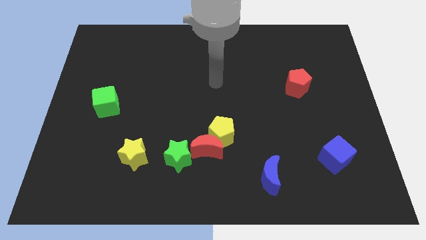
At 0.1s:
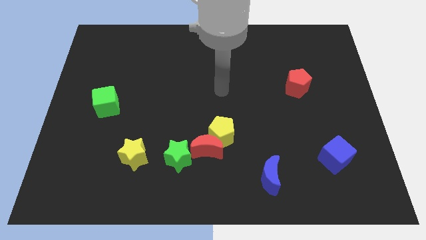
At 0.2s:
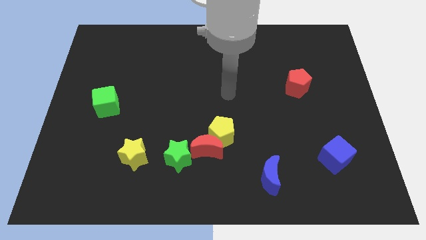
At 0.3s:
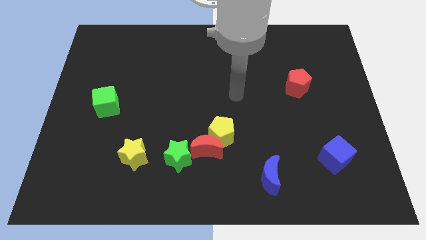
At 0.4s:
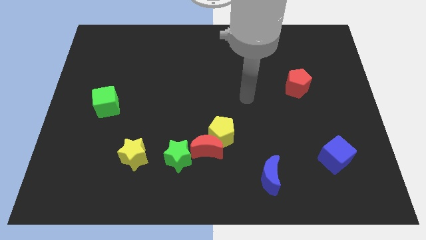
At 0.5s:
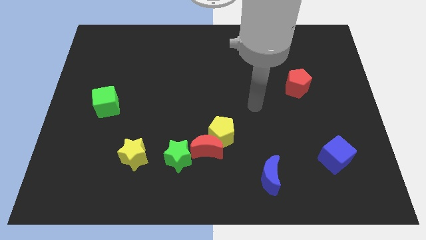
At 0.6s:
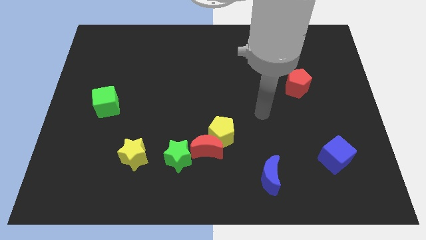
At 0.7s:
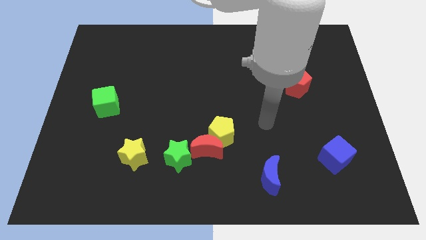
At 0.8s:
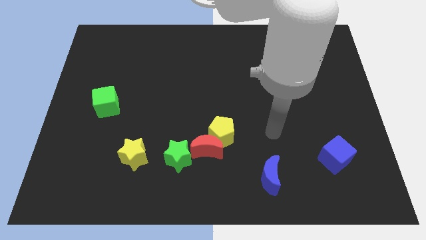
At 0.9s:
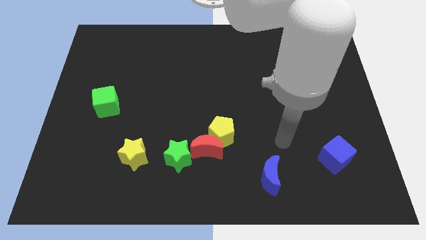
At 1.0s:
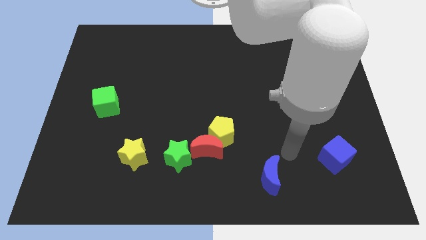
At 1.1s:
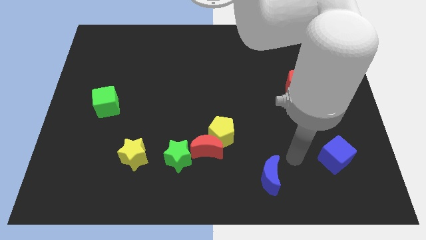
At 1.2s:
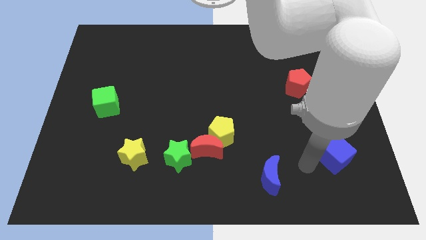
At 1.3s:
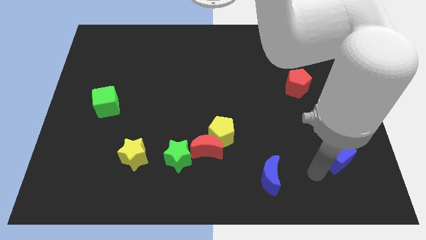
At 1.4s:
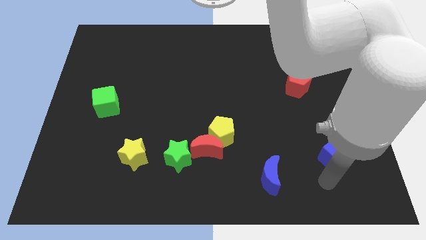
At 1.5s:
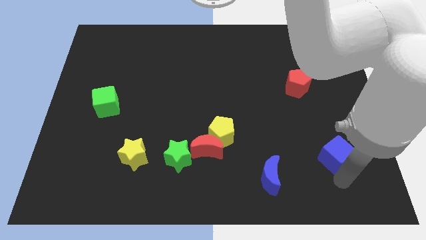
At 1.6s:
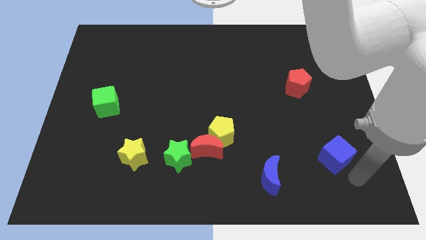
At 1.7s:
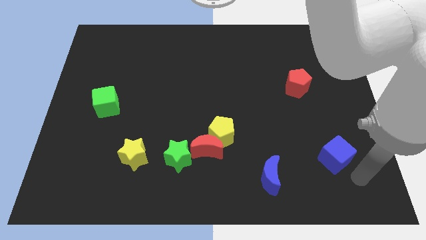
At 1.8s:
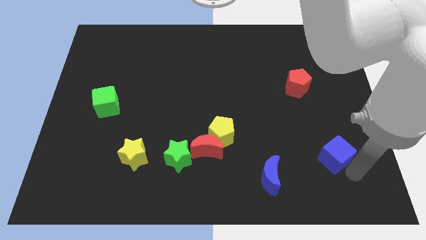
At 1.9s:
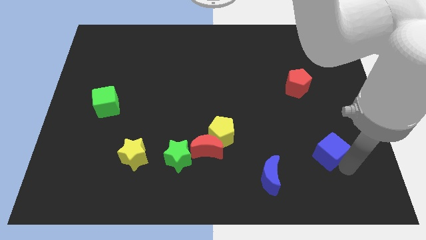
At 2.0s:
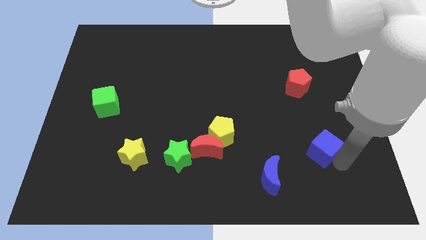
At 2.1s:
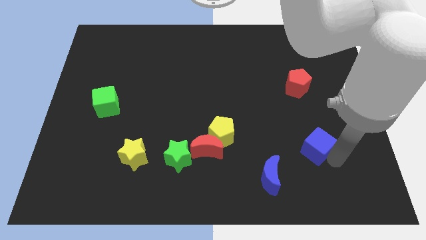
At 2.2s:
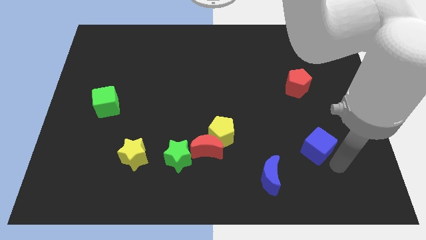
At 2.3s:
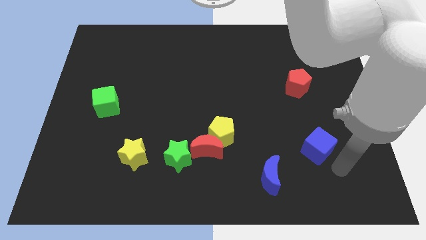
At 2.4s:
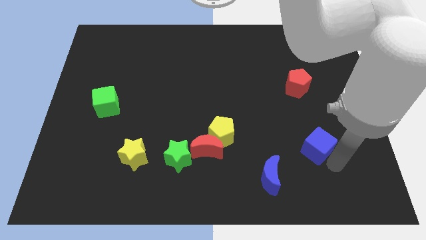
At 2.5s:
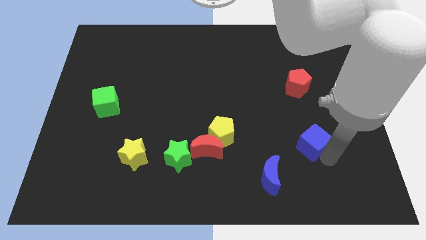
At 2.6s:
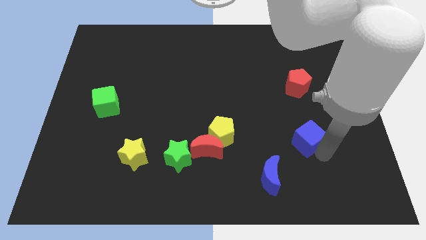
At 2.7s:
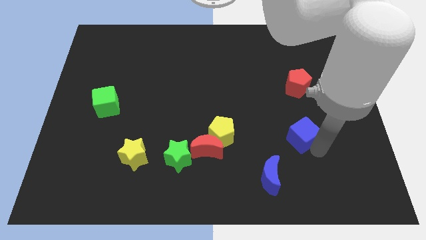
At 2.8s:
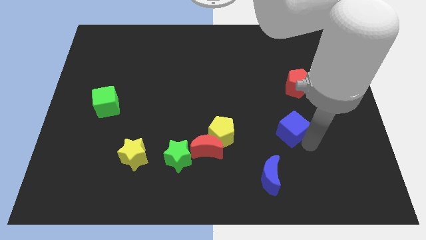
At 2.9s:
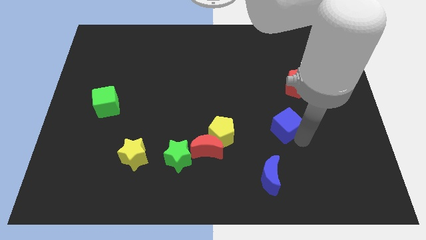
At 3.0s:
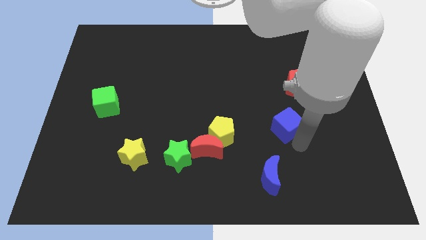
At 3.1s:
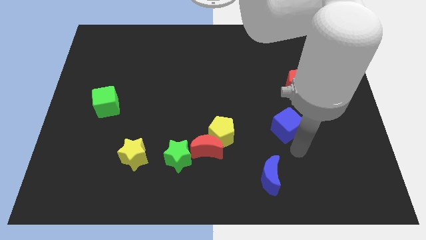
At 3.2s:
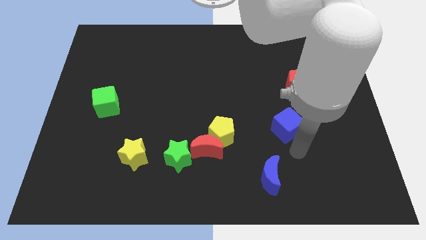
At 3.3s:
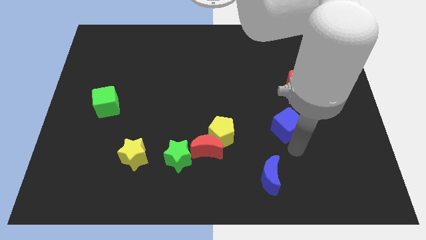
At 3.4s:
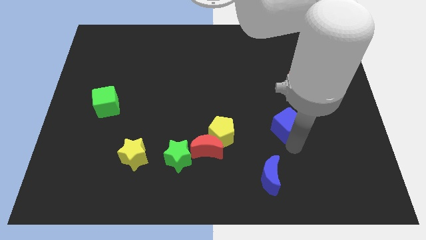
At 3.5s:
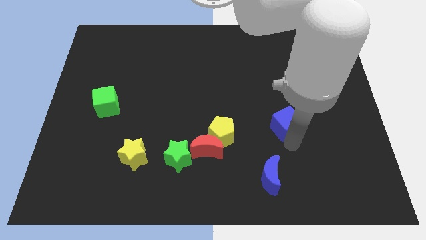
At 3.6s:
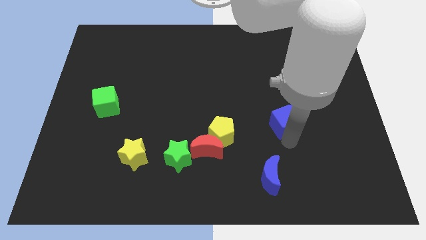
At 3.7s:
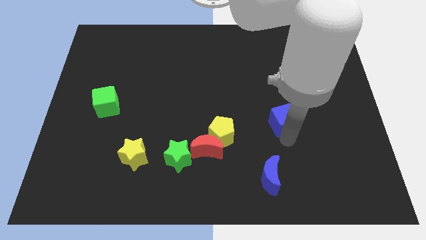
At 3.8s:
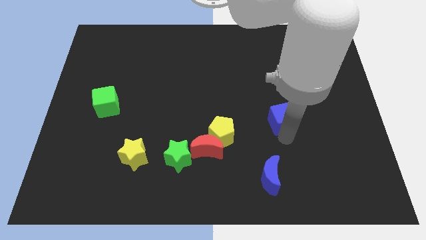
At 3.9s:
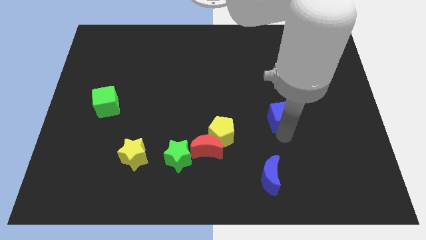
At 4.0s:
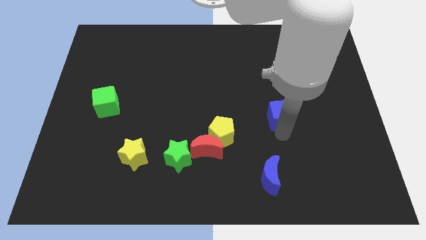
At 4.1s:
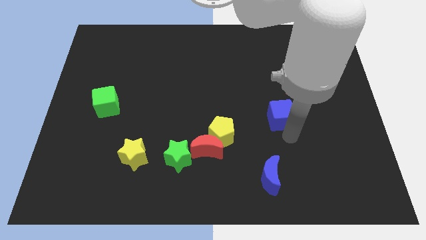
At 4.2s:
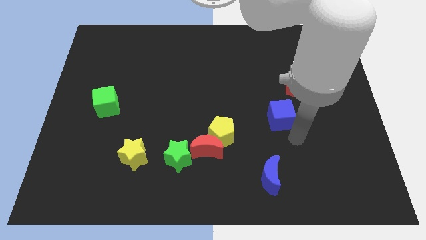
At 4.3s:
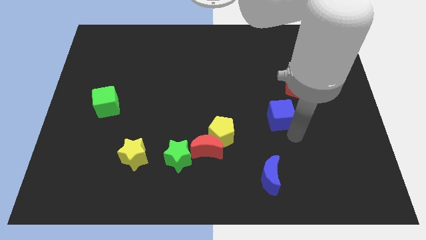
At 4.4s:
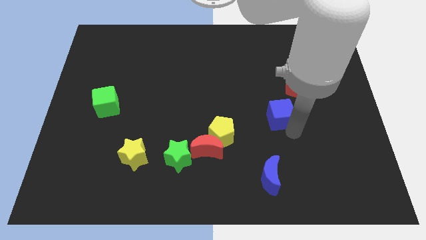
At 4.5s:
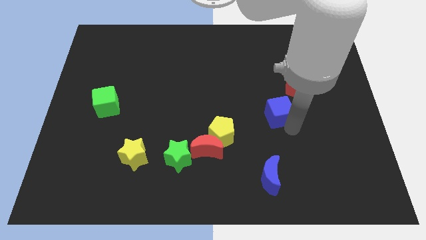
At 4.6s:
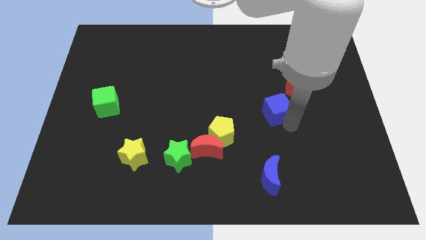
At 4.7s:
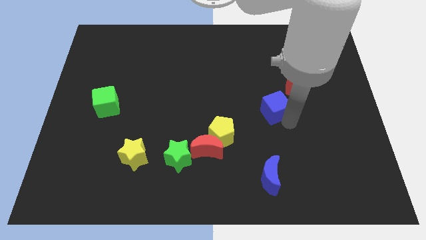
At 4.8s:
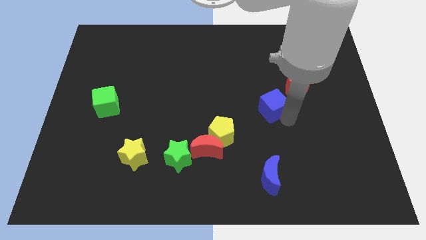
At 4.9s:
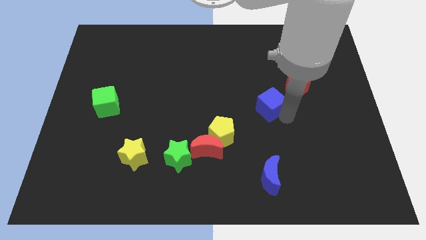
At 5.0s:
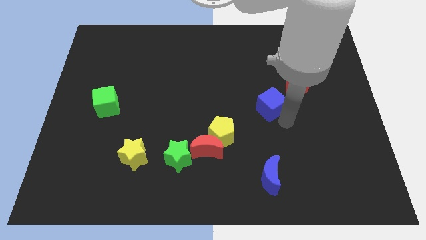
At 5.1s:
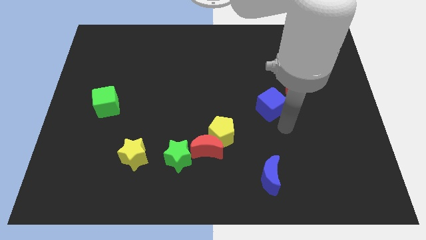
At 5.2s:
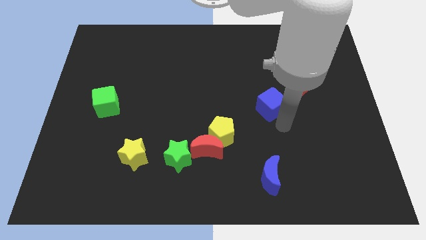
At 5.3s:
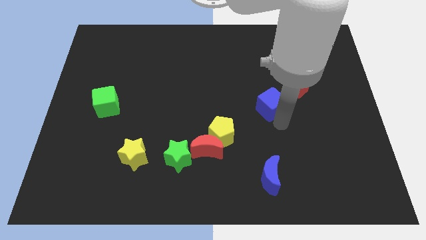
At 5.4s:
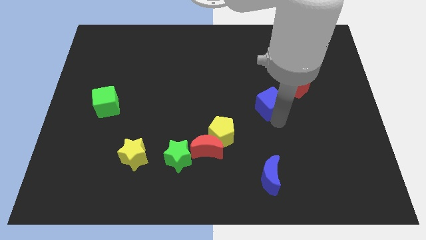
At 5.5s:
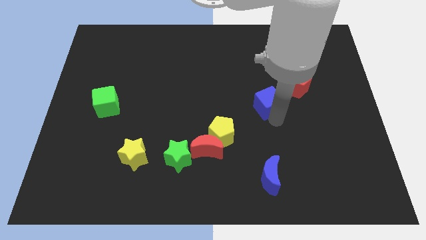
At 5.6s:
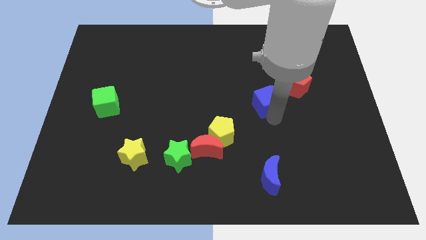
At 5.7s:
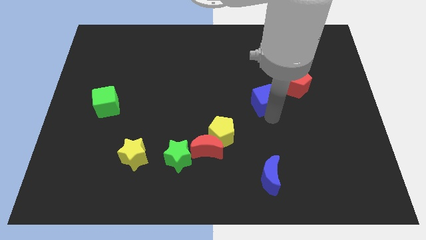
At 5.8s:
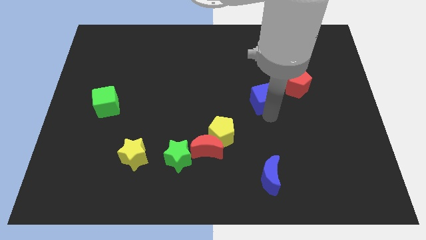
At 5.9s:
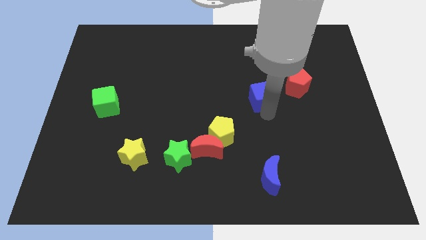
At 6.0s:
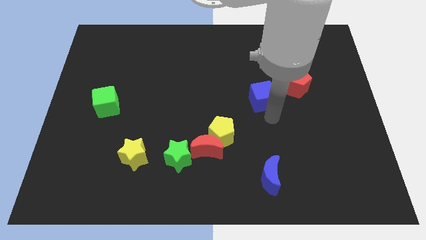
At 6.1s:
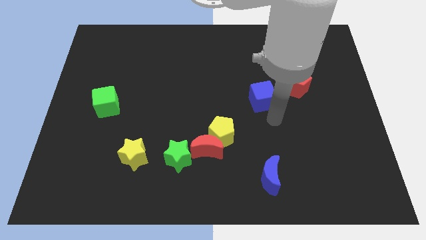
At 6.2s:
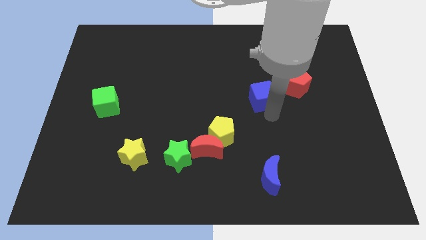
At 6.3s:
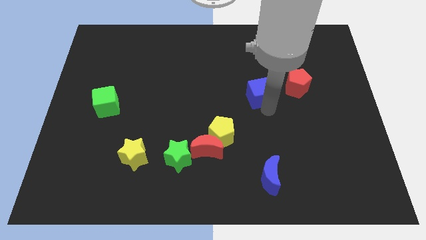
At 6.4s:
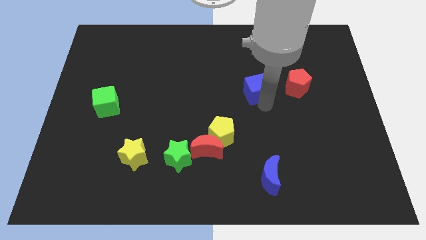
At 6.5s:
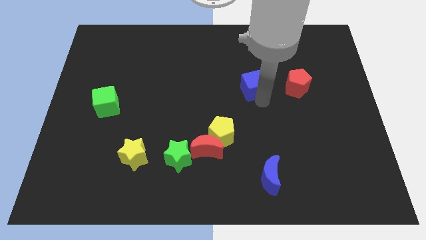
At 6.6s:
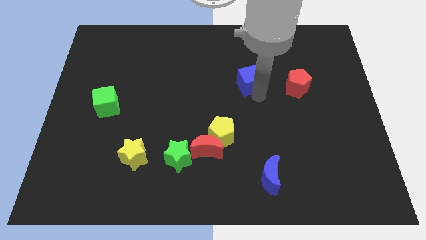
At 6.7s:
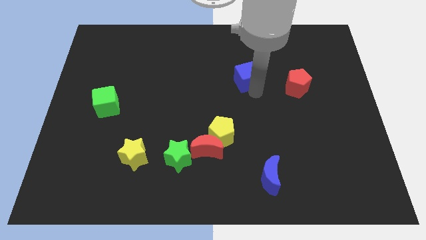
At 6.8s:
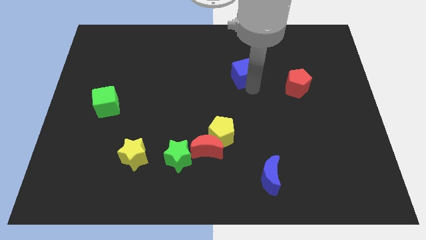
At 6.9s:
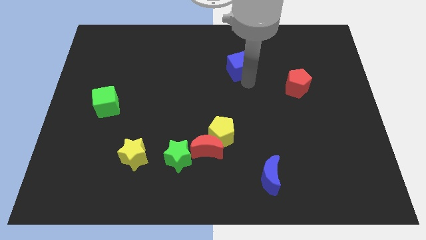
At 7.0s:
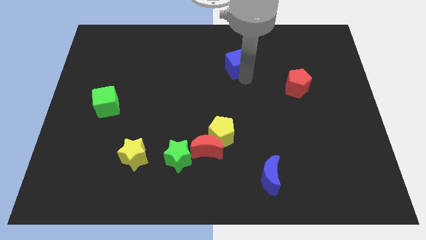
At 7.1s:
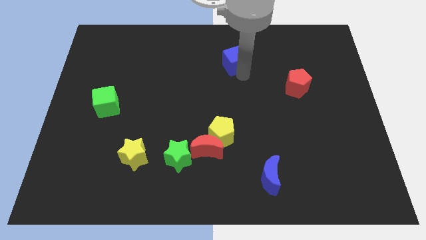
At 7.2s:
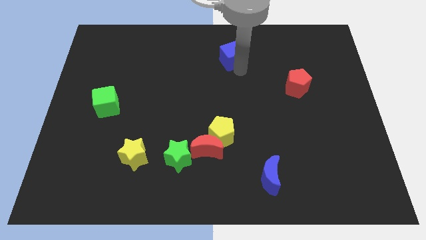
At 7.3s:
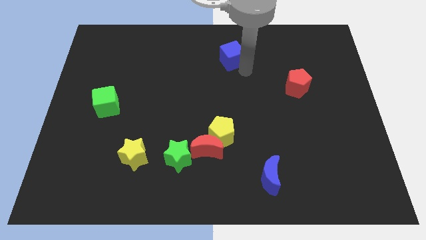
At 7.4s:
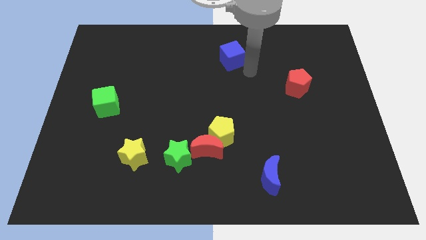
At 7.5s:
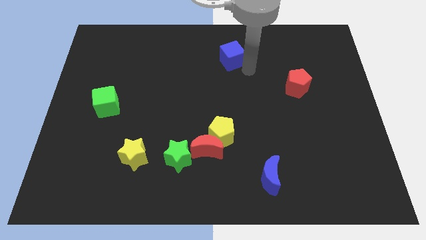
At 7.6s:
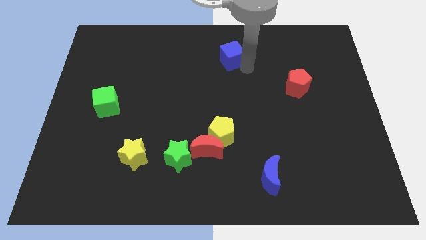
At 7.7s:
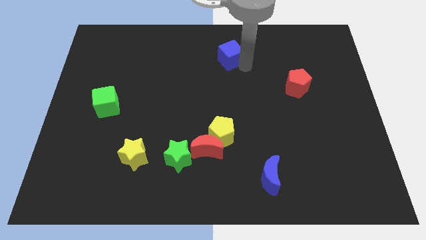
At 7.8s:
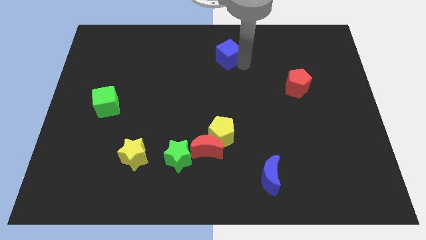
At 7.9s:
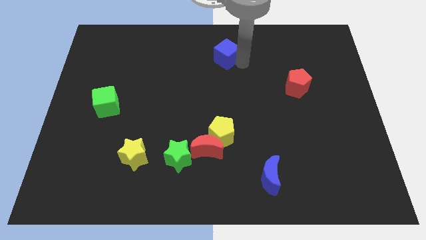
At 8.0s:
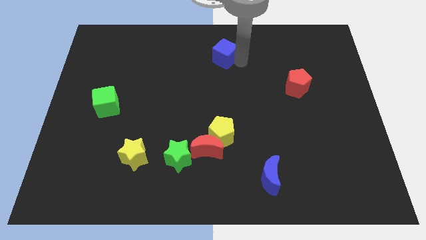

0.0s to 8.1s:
put the blue cube to the top side
